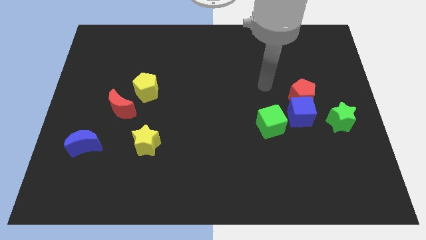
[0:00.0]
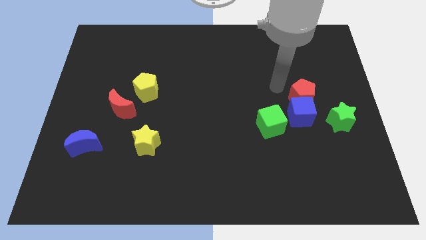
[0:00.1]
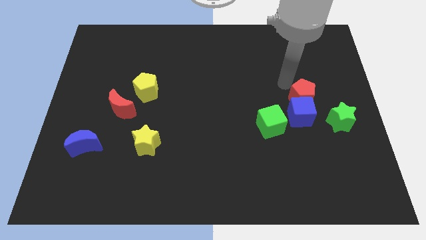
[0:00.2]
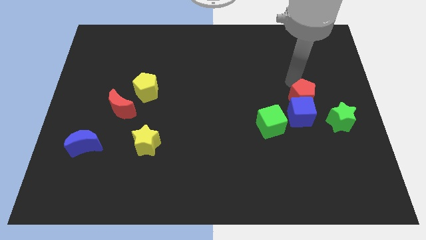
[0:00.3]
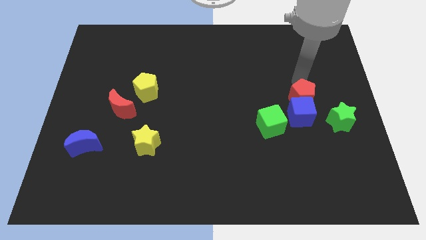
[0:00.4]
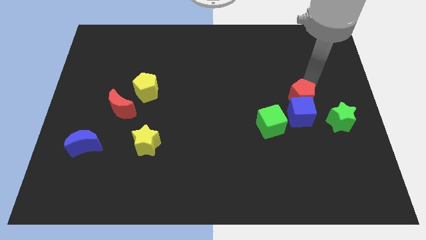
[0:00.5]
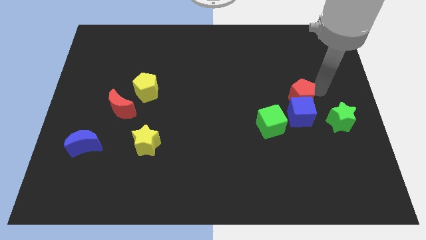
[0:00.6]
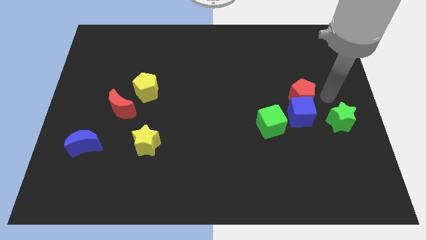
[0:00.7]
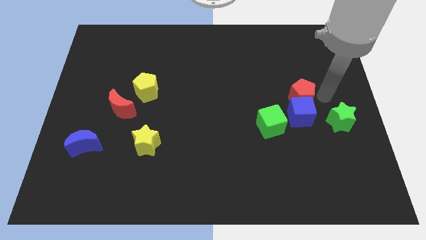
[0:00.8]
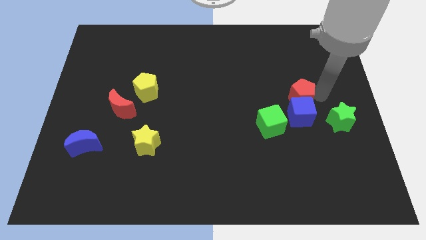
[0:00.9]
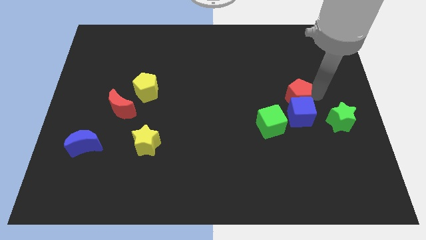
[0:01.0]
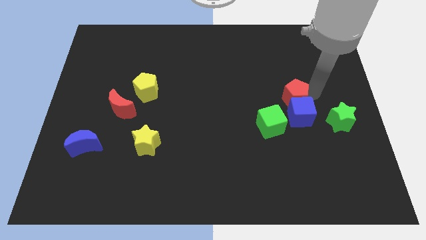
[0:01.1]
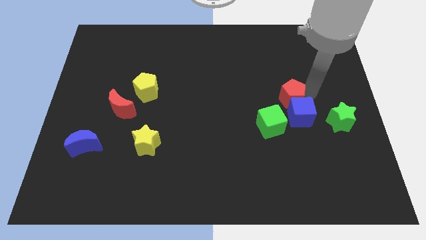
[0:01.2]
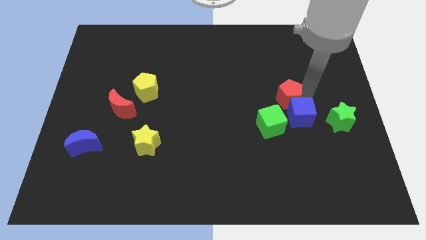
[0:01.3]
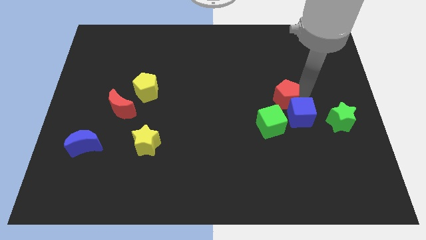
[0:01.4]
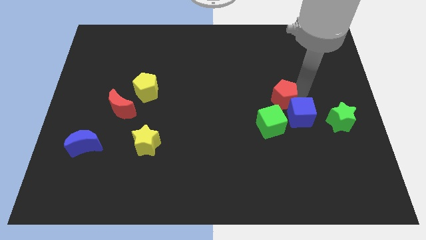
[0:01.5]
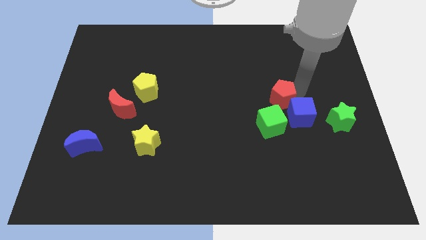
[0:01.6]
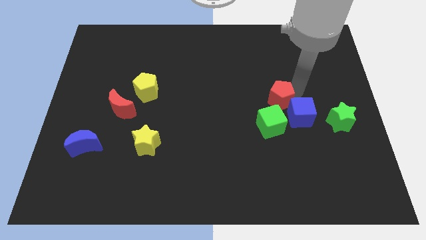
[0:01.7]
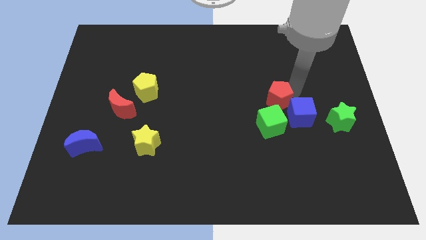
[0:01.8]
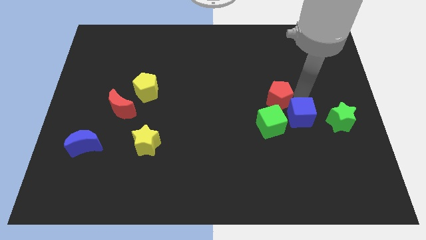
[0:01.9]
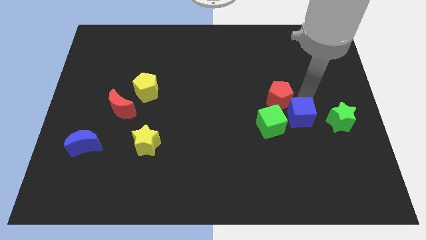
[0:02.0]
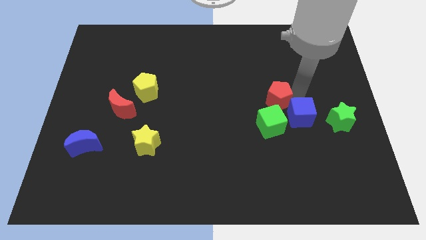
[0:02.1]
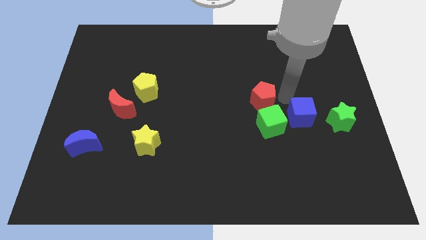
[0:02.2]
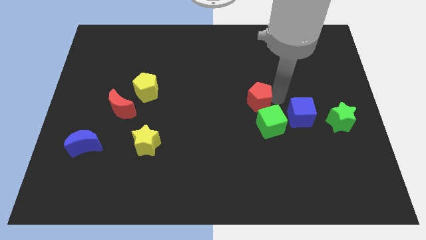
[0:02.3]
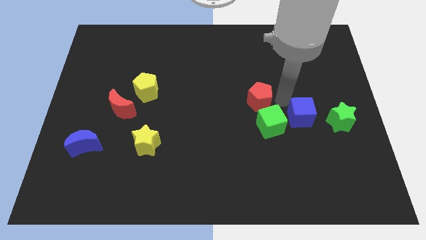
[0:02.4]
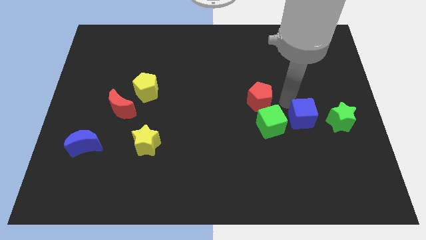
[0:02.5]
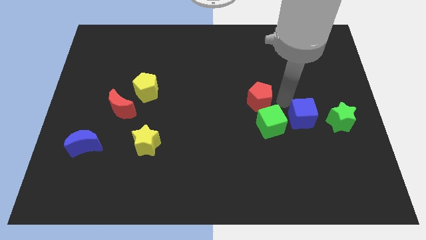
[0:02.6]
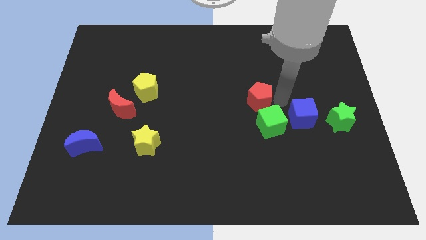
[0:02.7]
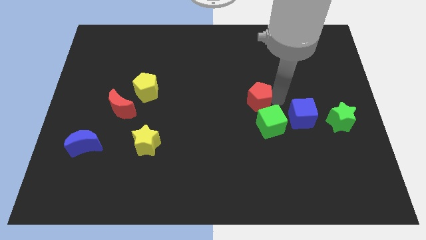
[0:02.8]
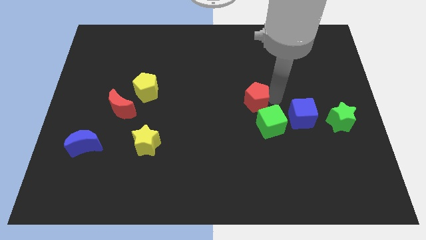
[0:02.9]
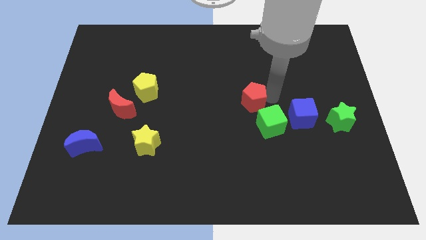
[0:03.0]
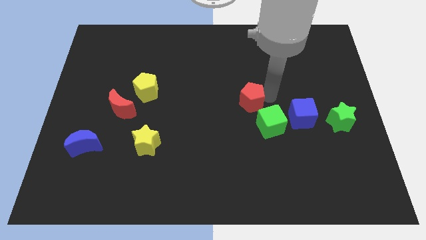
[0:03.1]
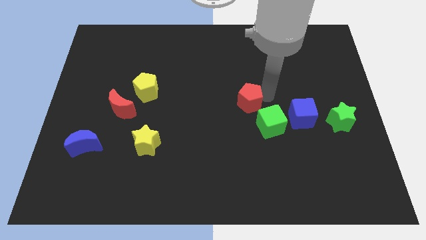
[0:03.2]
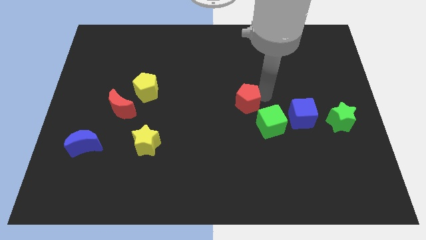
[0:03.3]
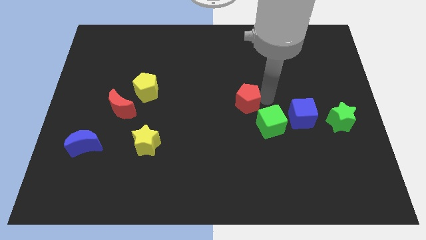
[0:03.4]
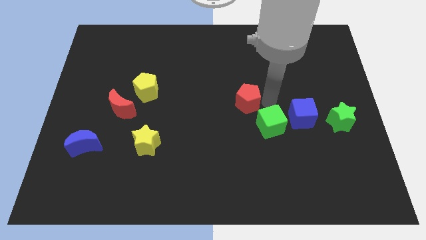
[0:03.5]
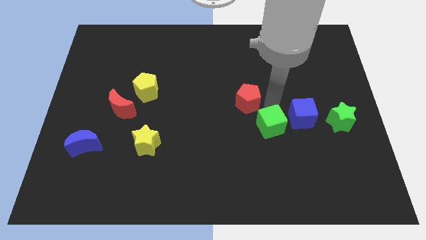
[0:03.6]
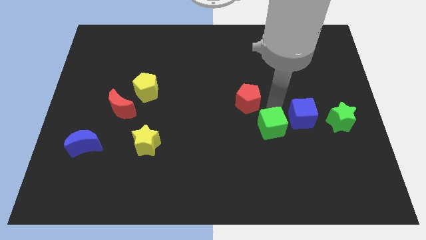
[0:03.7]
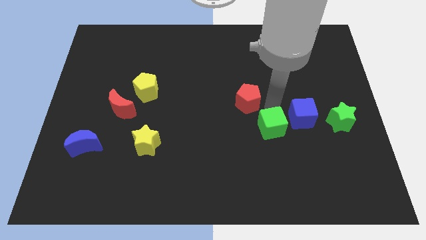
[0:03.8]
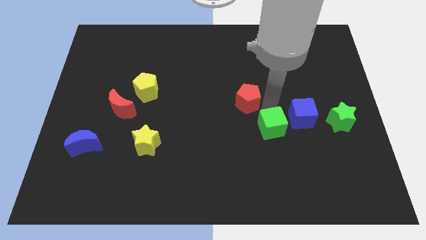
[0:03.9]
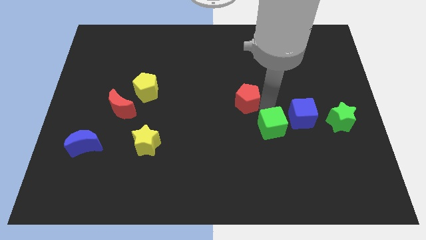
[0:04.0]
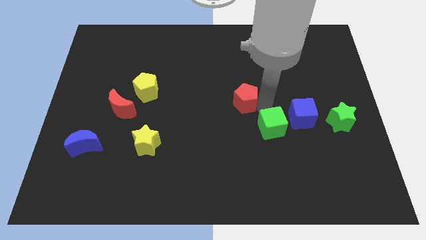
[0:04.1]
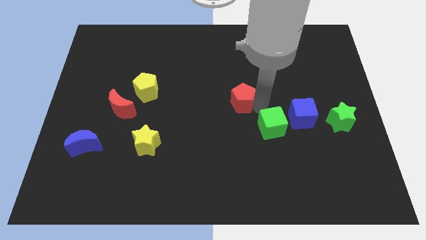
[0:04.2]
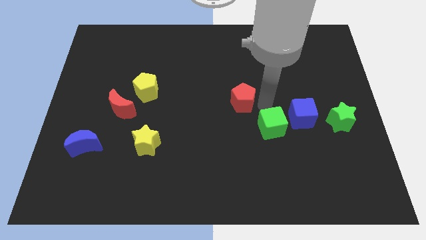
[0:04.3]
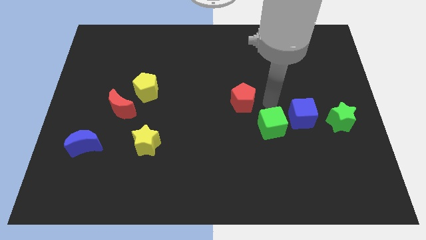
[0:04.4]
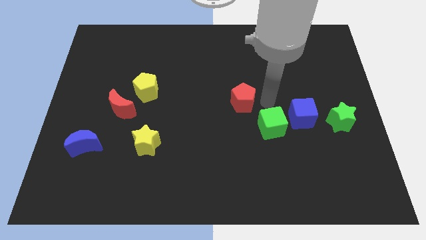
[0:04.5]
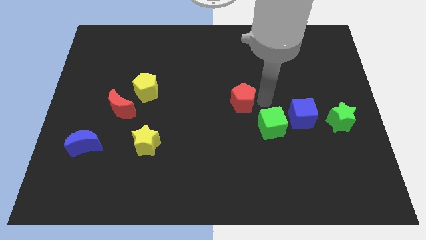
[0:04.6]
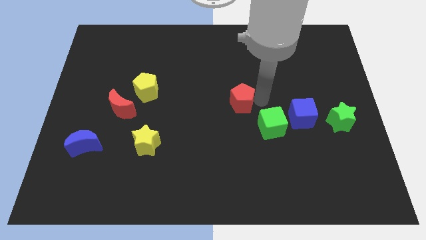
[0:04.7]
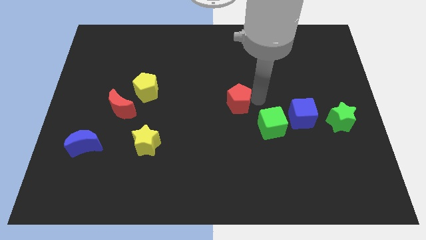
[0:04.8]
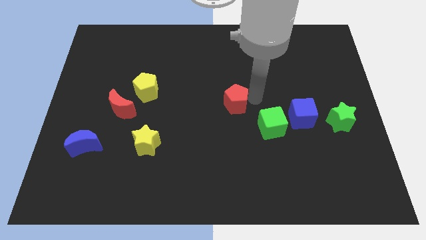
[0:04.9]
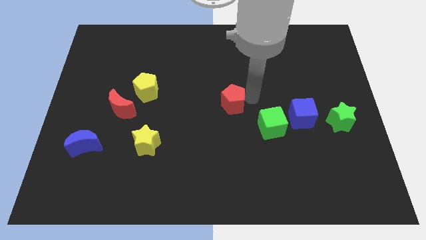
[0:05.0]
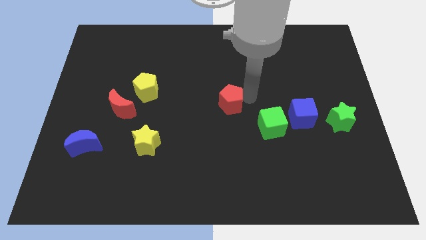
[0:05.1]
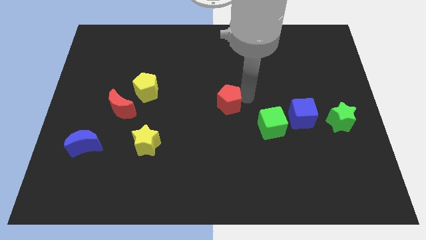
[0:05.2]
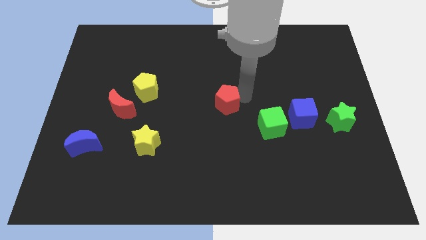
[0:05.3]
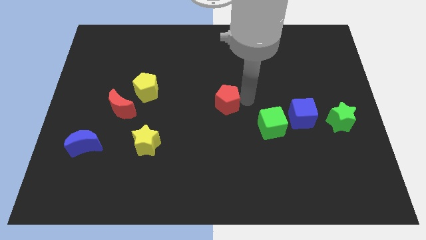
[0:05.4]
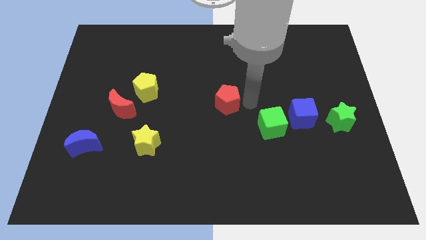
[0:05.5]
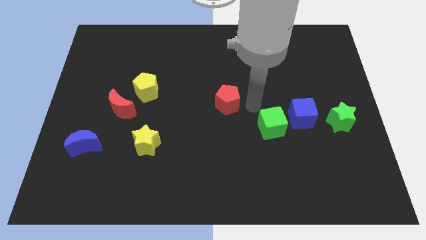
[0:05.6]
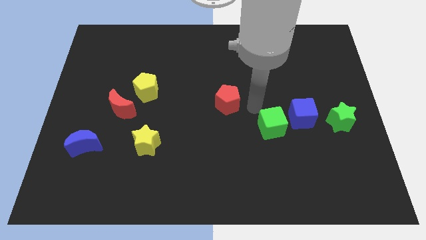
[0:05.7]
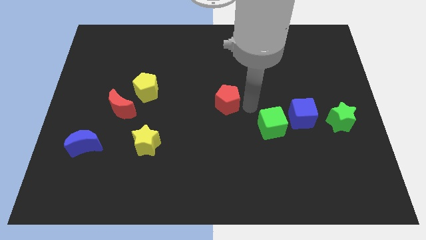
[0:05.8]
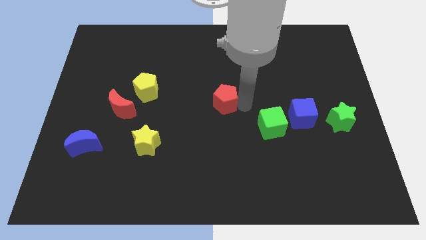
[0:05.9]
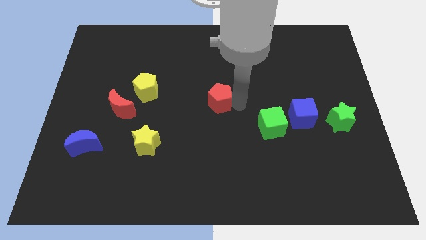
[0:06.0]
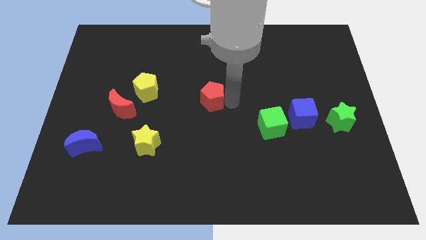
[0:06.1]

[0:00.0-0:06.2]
push the red pentagon left

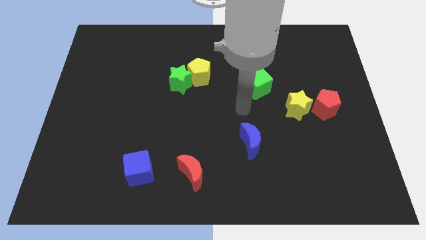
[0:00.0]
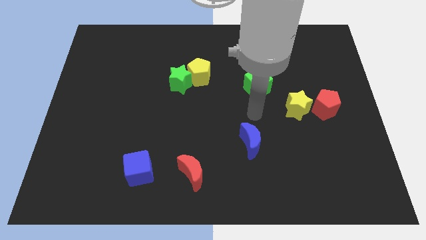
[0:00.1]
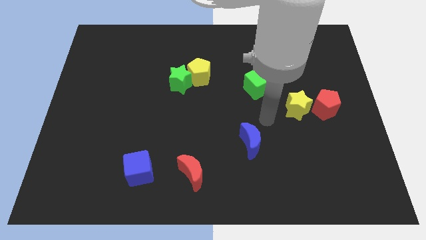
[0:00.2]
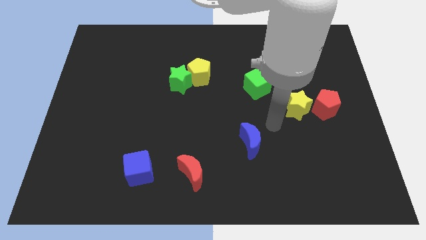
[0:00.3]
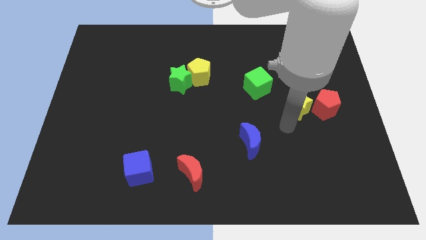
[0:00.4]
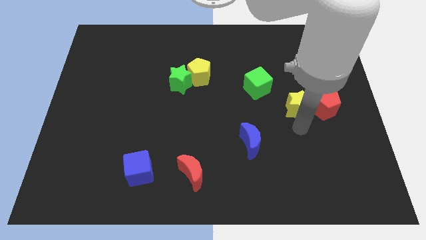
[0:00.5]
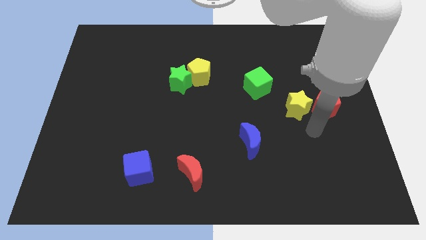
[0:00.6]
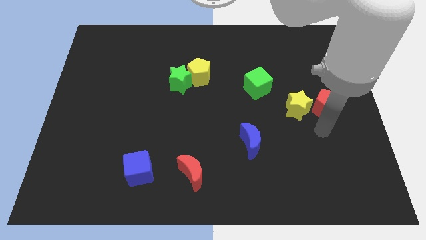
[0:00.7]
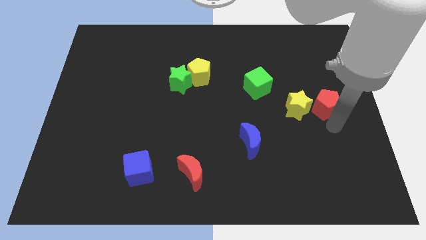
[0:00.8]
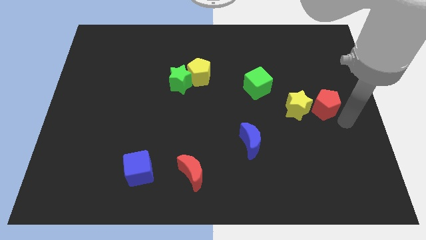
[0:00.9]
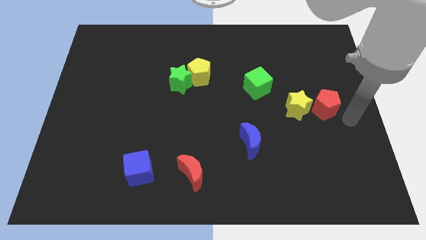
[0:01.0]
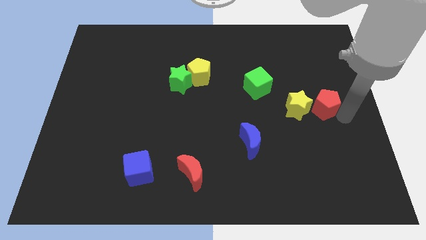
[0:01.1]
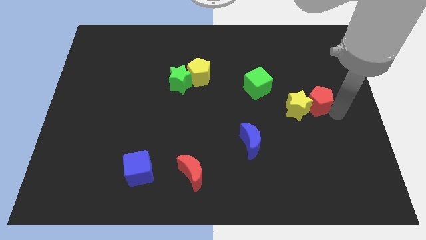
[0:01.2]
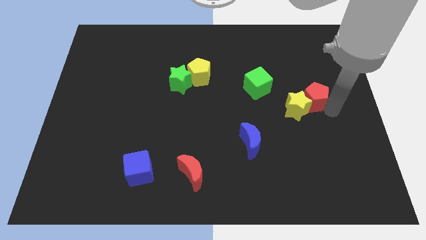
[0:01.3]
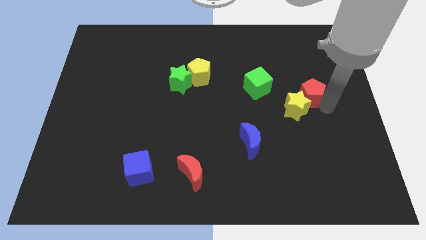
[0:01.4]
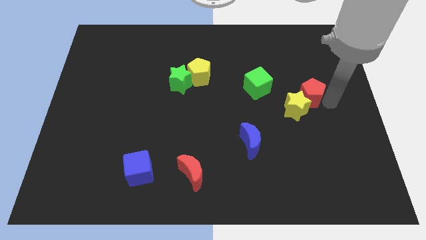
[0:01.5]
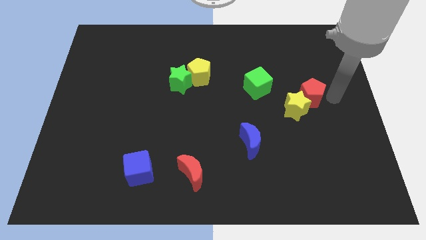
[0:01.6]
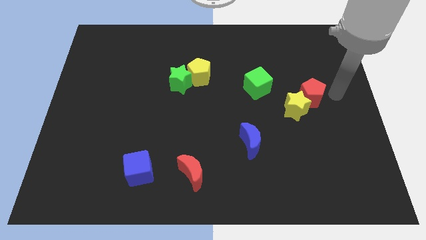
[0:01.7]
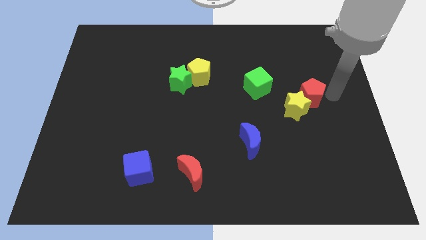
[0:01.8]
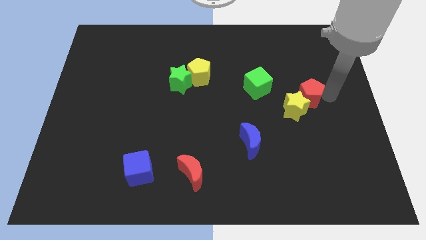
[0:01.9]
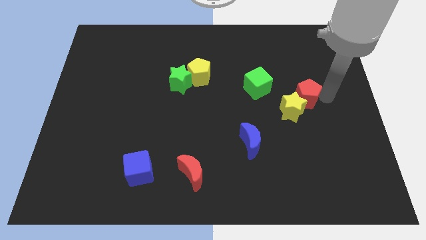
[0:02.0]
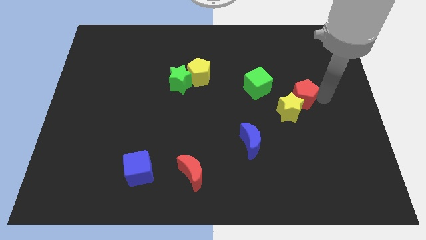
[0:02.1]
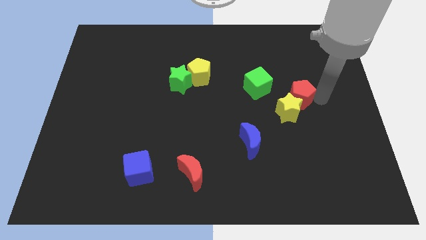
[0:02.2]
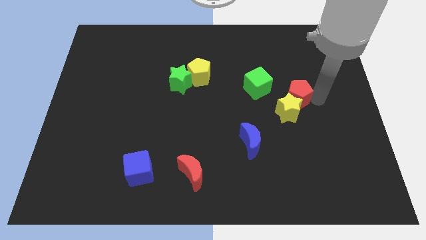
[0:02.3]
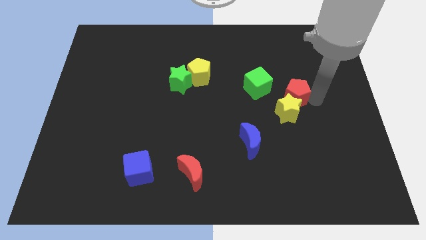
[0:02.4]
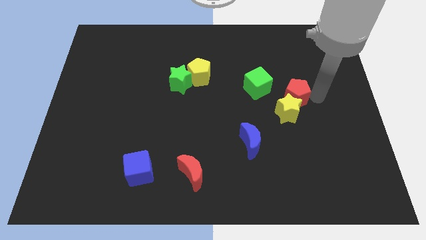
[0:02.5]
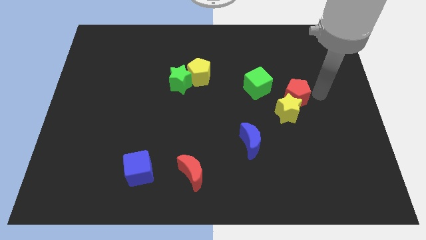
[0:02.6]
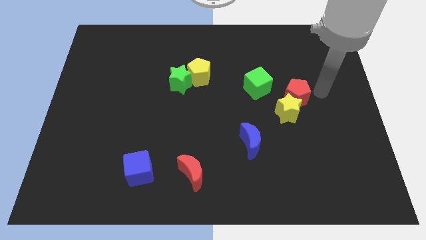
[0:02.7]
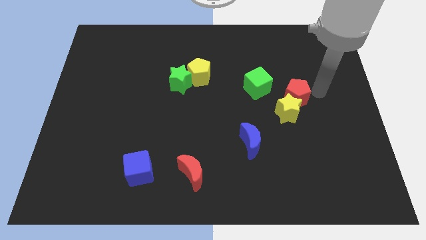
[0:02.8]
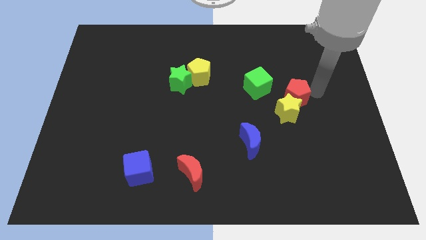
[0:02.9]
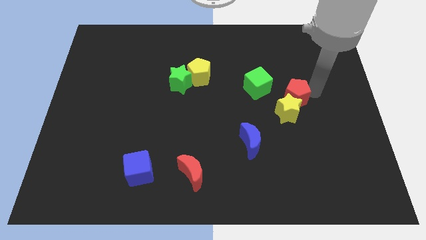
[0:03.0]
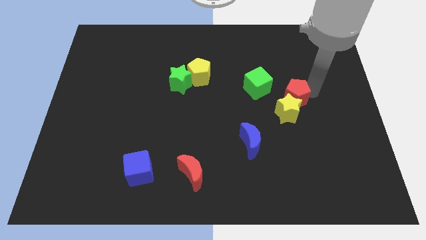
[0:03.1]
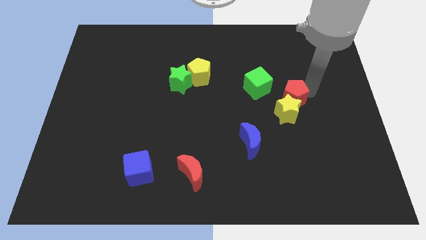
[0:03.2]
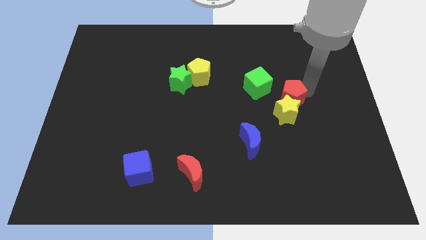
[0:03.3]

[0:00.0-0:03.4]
slightly slide the red pentagon left
